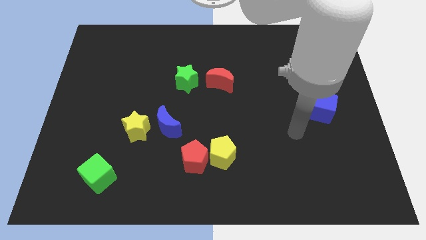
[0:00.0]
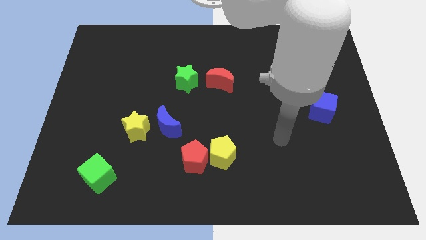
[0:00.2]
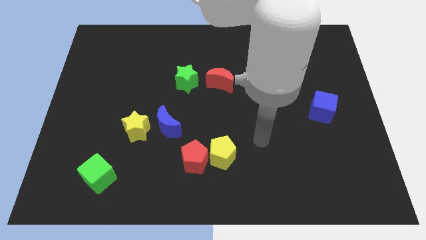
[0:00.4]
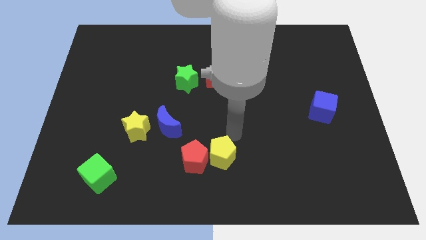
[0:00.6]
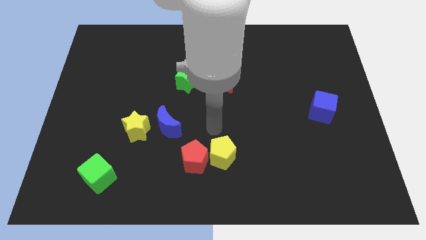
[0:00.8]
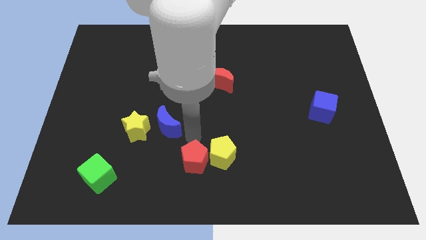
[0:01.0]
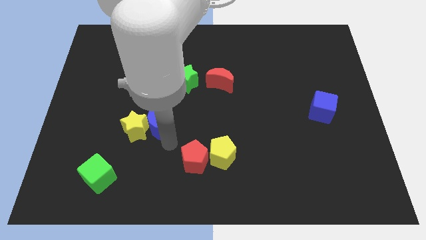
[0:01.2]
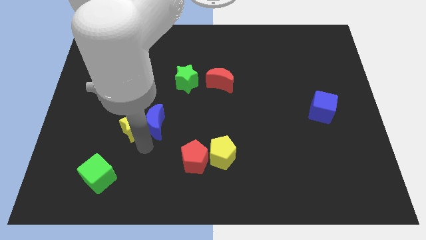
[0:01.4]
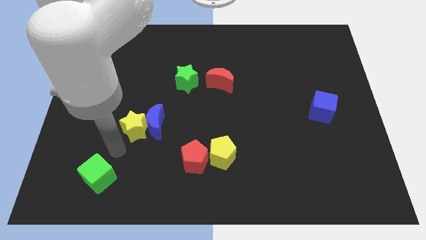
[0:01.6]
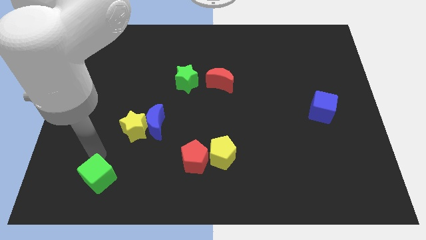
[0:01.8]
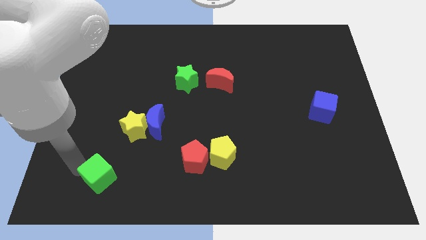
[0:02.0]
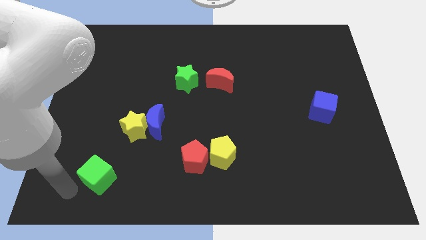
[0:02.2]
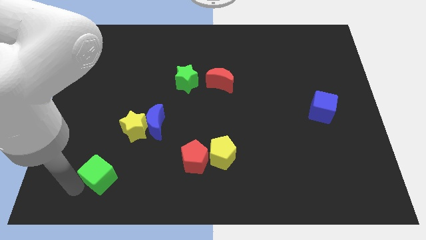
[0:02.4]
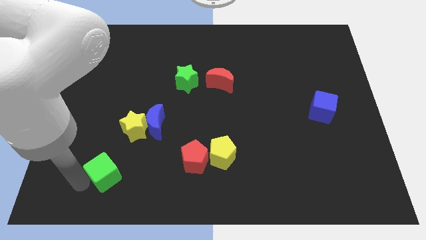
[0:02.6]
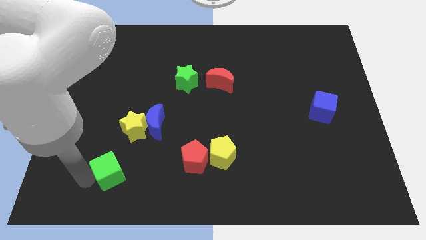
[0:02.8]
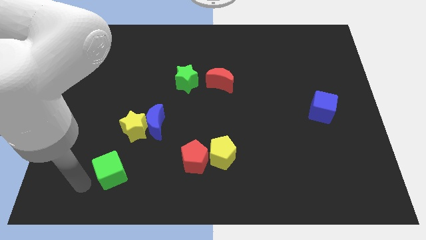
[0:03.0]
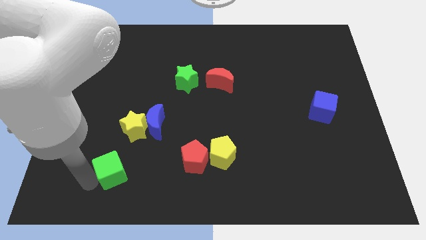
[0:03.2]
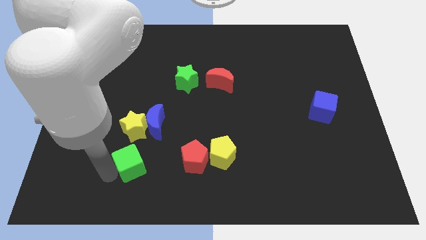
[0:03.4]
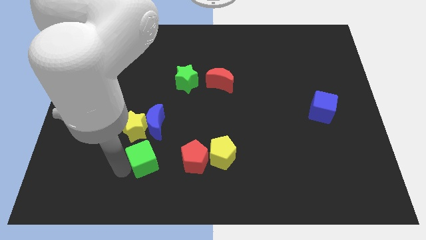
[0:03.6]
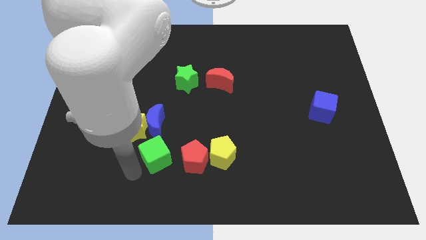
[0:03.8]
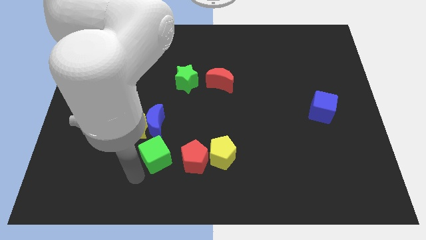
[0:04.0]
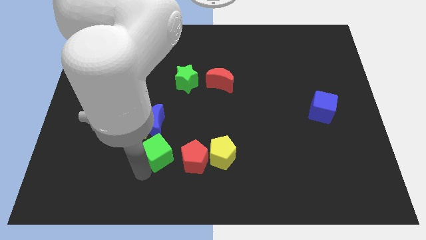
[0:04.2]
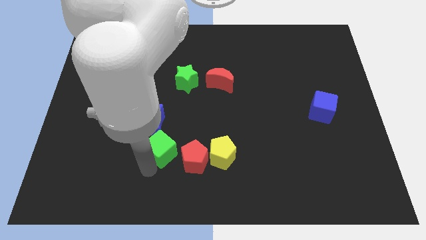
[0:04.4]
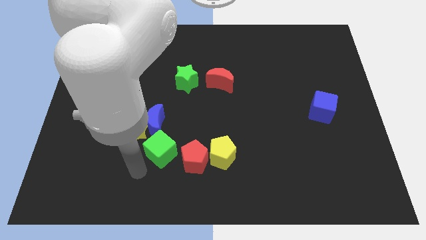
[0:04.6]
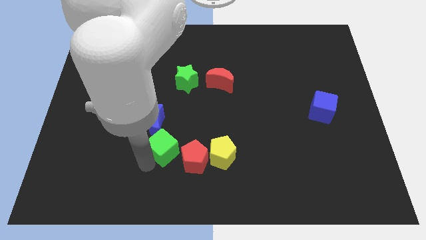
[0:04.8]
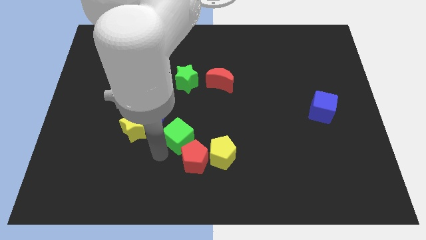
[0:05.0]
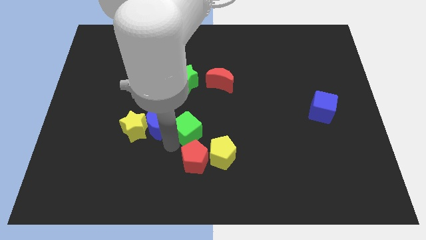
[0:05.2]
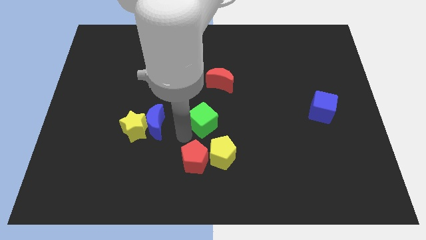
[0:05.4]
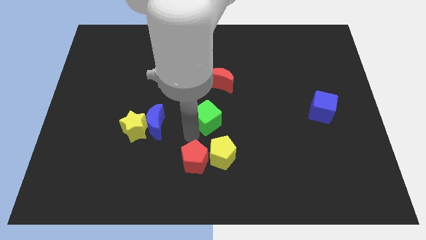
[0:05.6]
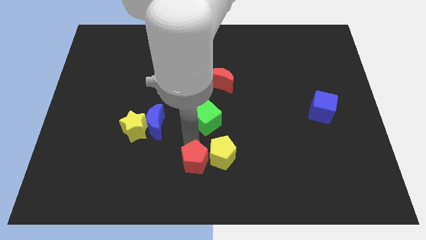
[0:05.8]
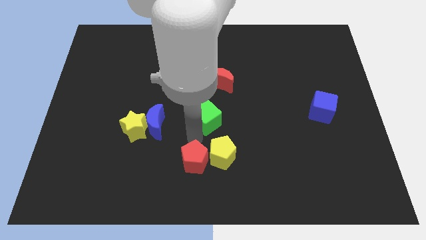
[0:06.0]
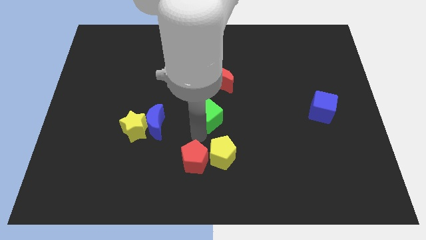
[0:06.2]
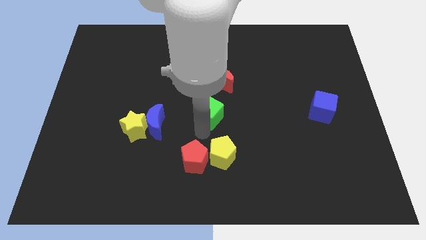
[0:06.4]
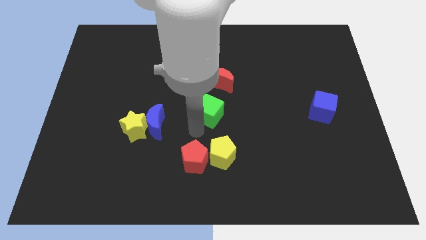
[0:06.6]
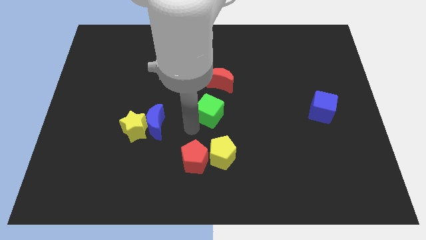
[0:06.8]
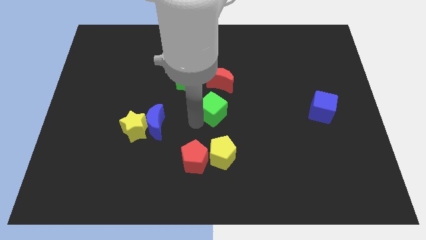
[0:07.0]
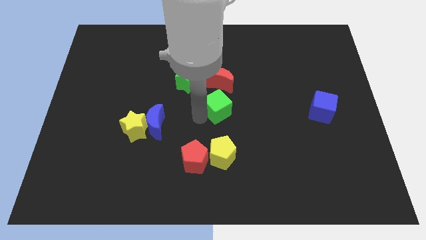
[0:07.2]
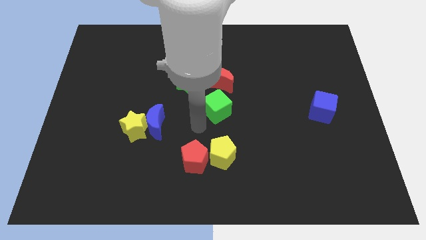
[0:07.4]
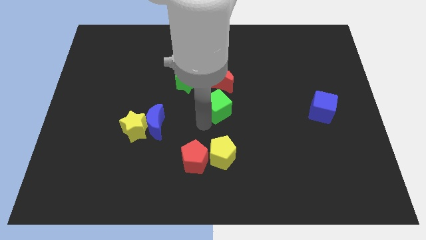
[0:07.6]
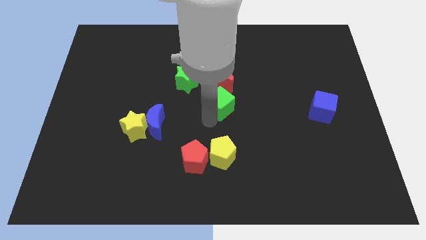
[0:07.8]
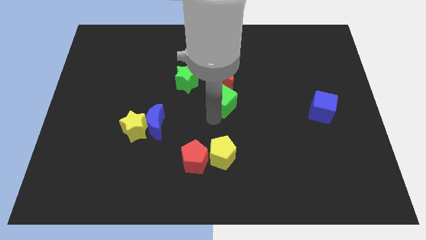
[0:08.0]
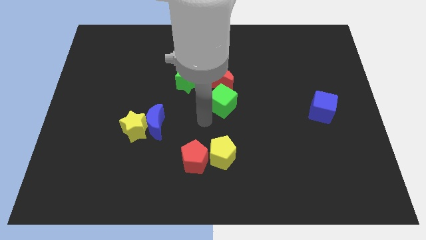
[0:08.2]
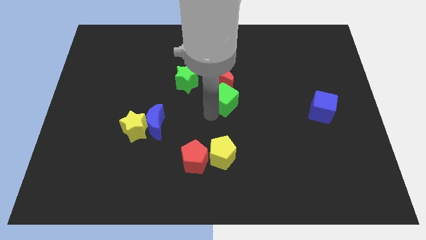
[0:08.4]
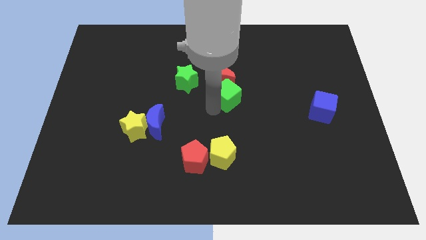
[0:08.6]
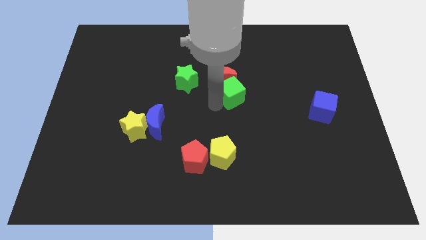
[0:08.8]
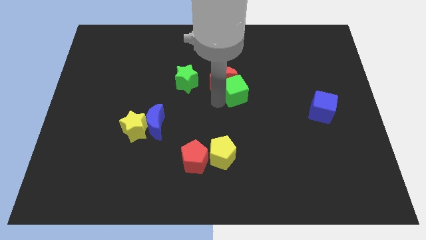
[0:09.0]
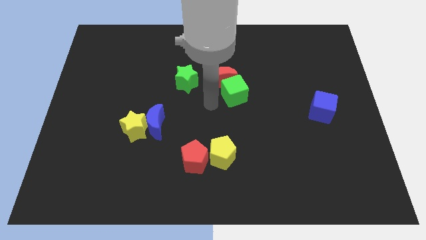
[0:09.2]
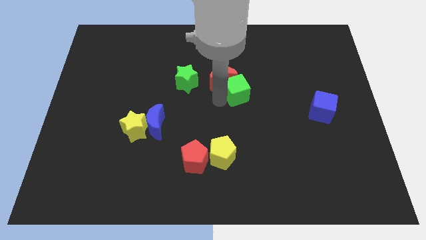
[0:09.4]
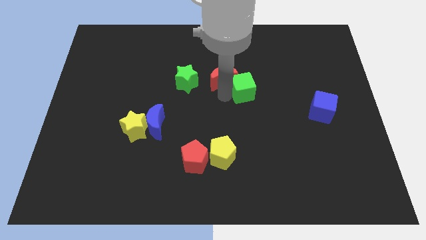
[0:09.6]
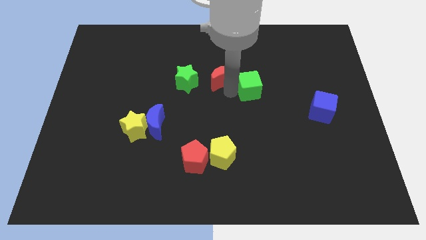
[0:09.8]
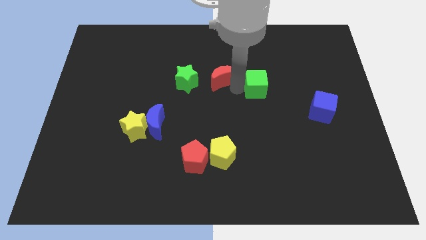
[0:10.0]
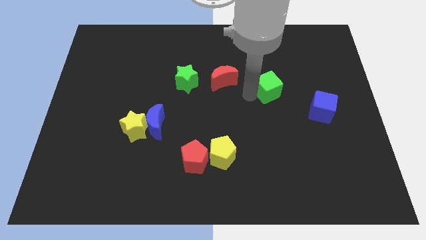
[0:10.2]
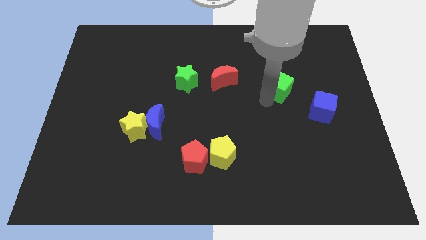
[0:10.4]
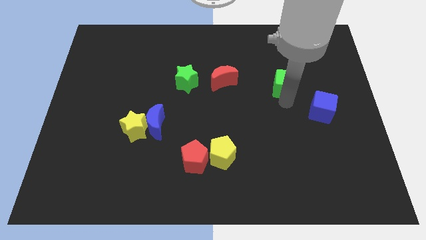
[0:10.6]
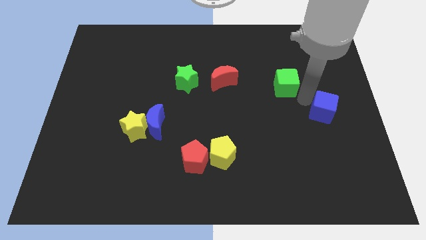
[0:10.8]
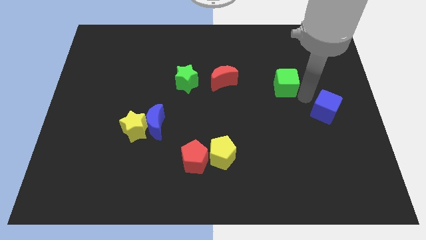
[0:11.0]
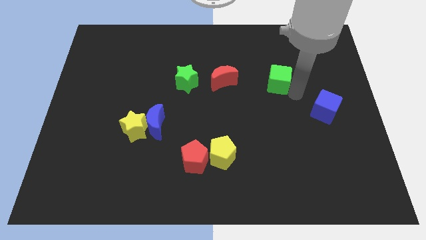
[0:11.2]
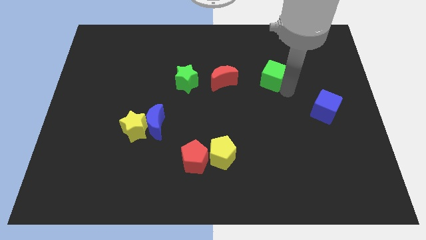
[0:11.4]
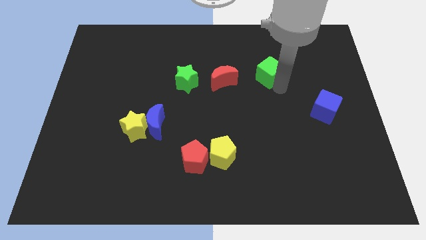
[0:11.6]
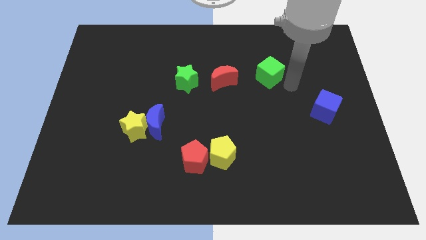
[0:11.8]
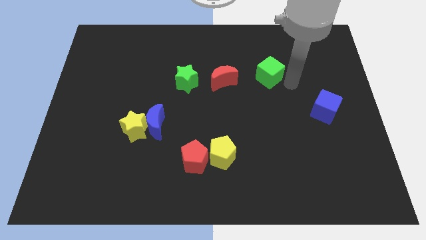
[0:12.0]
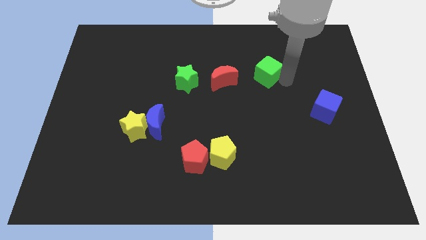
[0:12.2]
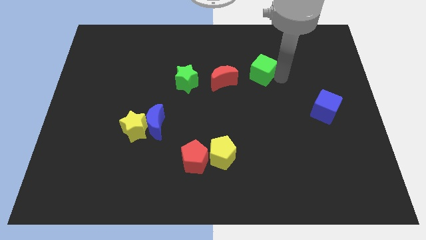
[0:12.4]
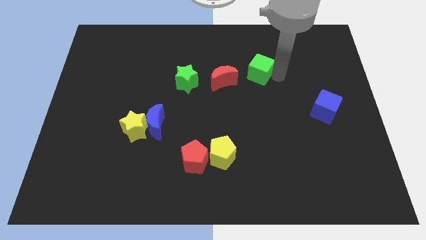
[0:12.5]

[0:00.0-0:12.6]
slide the green cube to the top right of the red moon

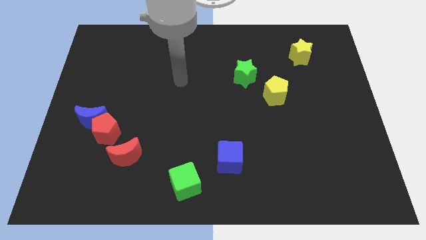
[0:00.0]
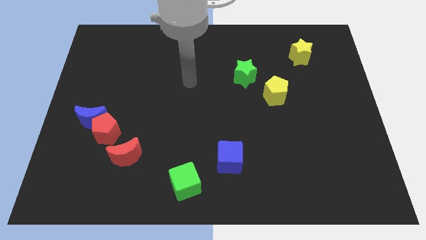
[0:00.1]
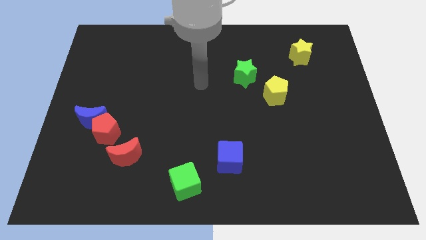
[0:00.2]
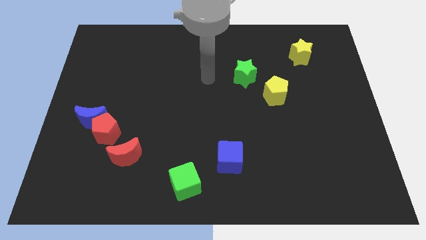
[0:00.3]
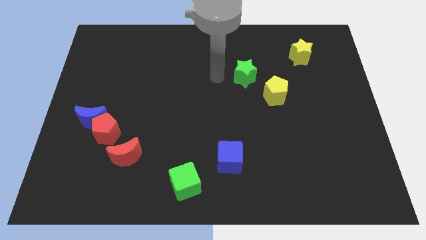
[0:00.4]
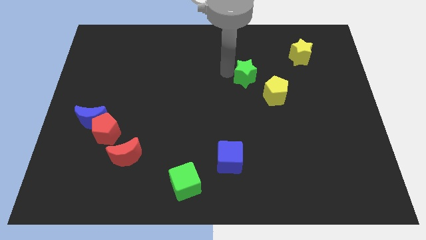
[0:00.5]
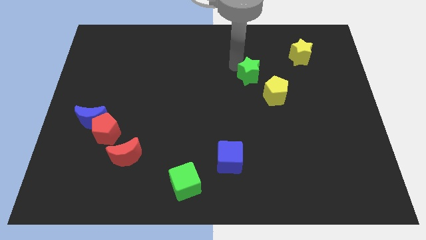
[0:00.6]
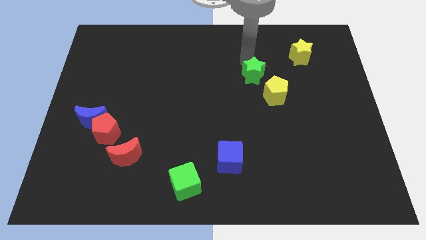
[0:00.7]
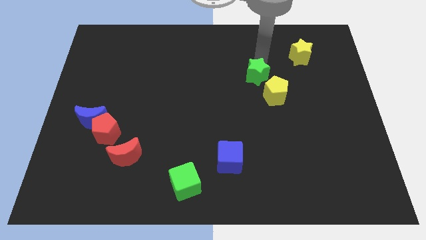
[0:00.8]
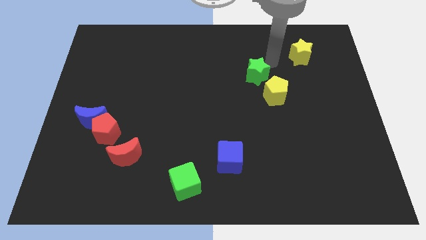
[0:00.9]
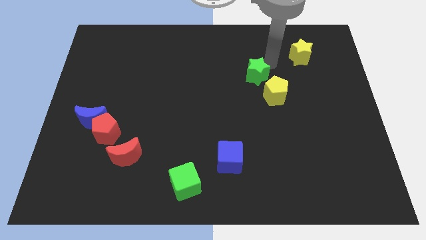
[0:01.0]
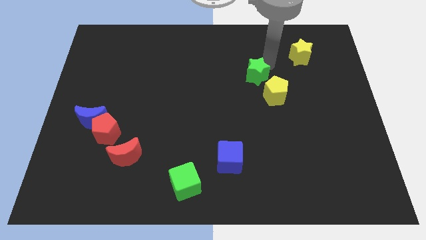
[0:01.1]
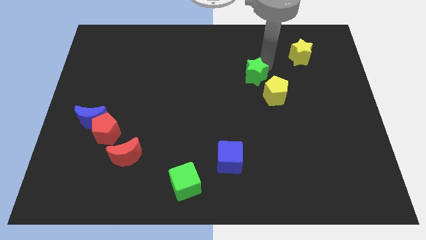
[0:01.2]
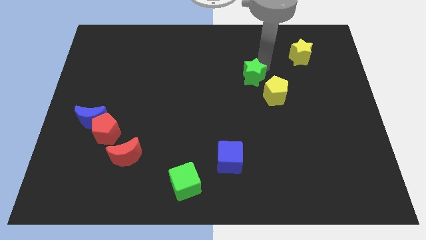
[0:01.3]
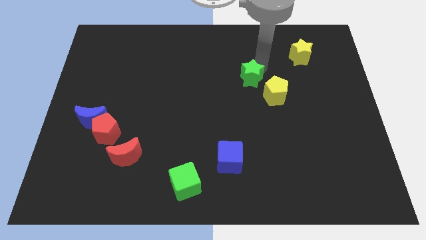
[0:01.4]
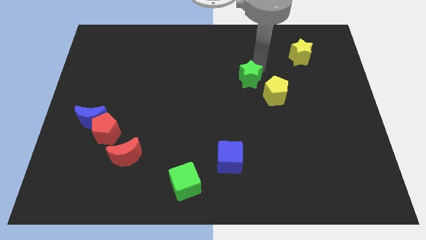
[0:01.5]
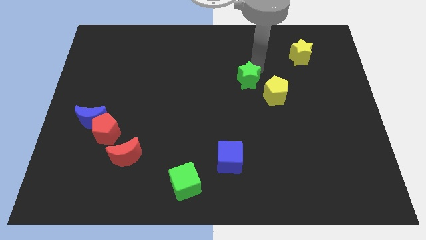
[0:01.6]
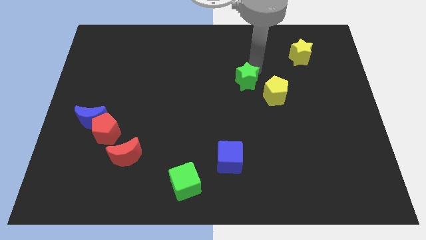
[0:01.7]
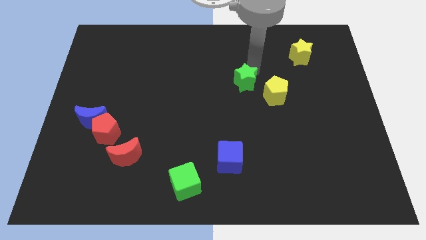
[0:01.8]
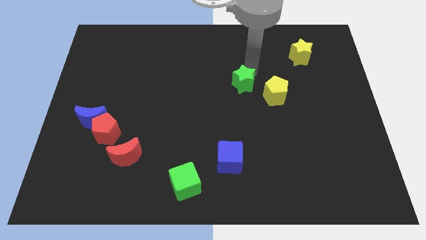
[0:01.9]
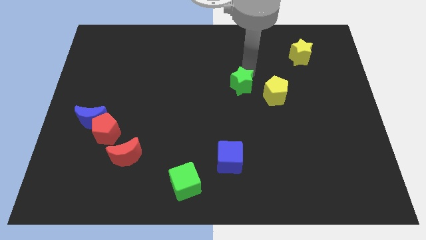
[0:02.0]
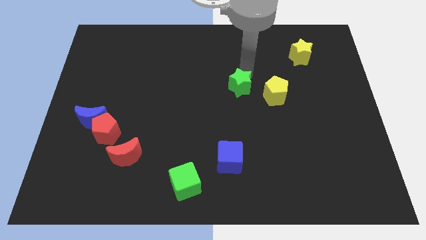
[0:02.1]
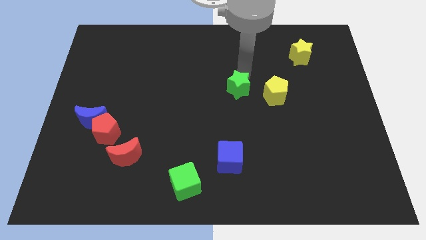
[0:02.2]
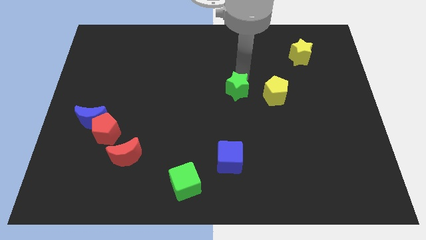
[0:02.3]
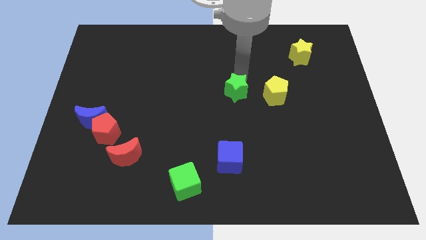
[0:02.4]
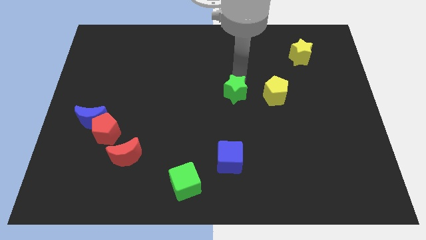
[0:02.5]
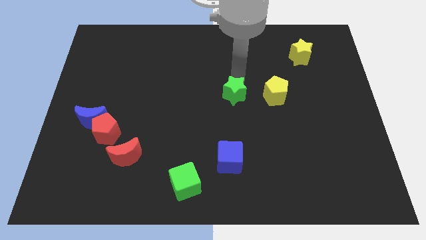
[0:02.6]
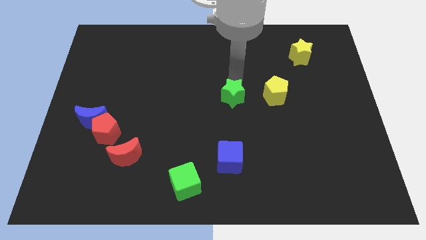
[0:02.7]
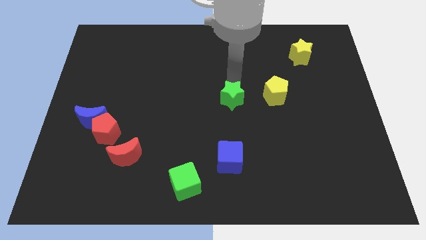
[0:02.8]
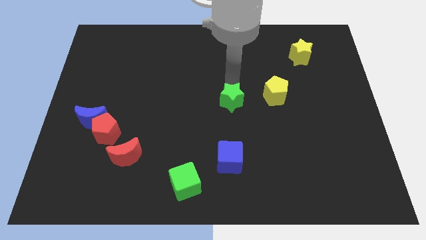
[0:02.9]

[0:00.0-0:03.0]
move the green star to the top side of the blue cube
